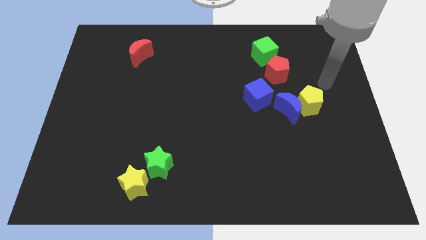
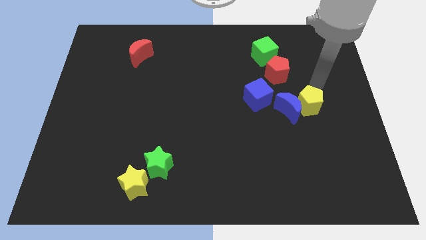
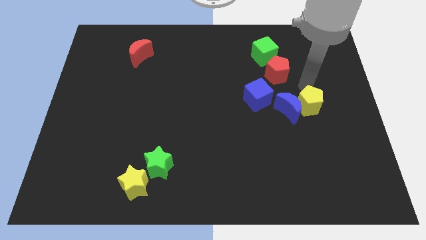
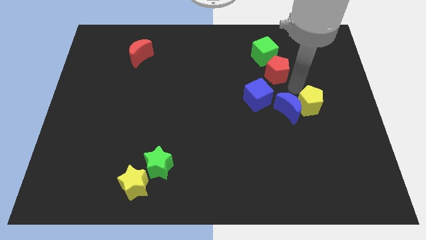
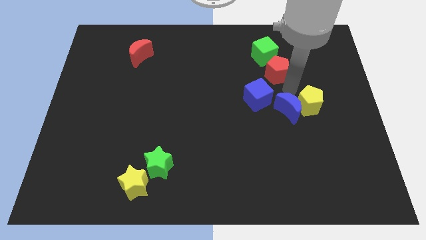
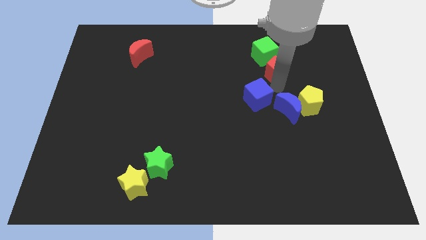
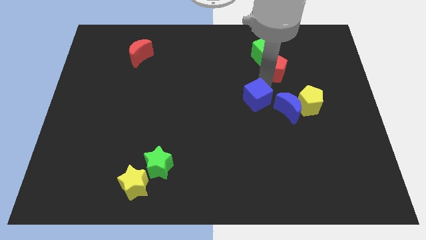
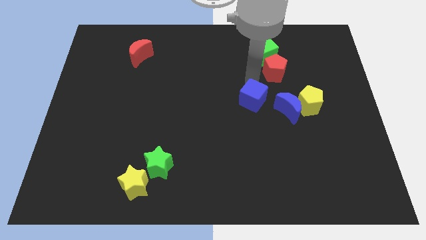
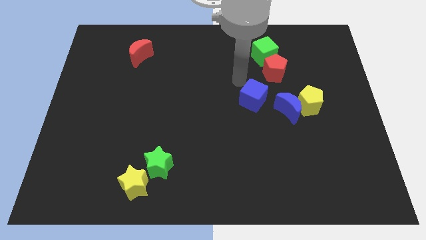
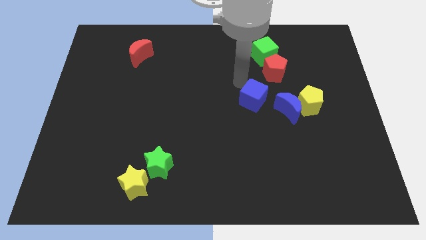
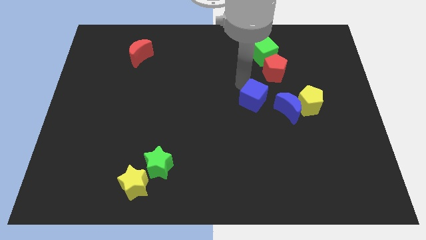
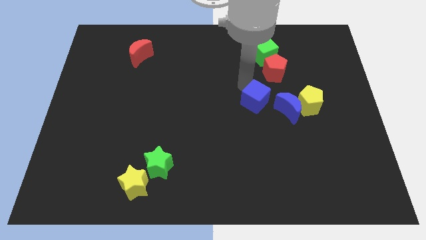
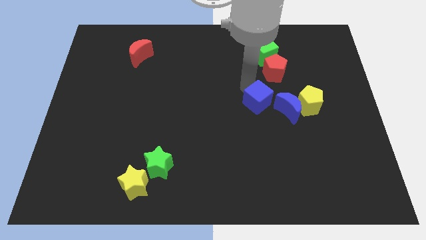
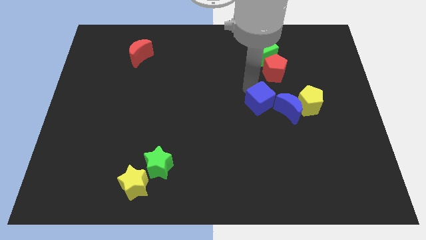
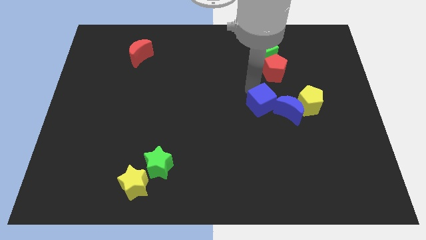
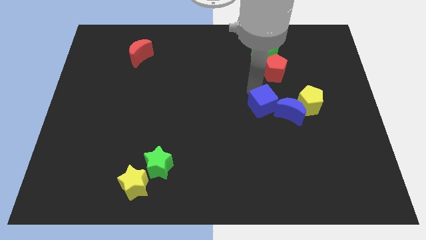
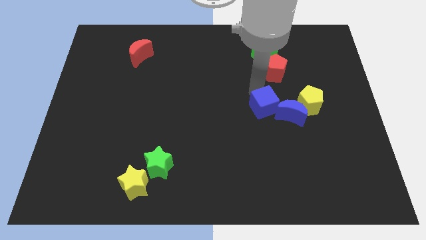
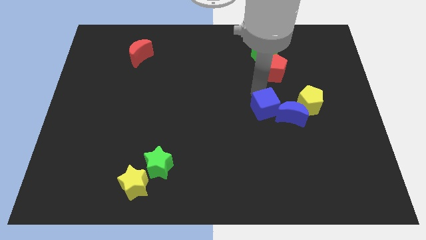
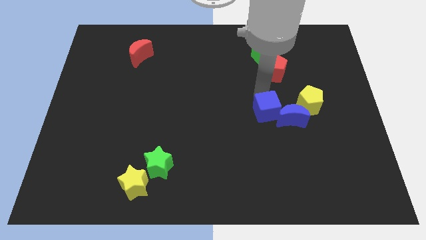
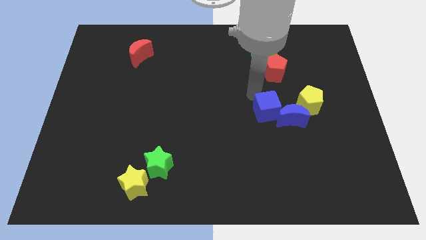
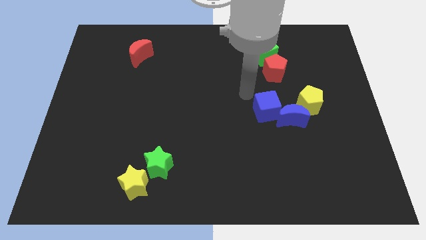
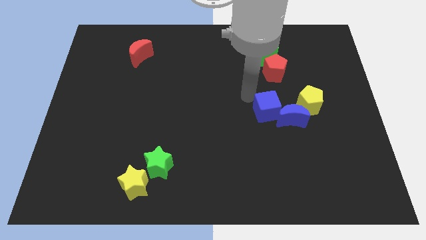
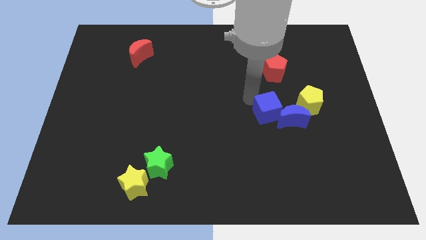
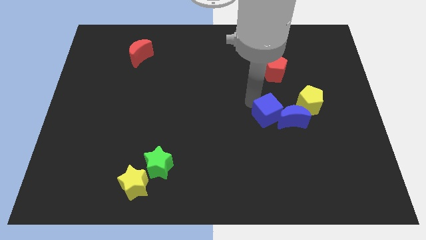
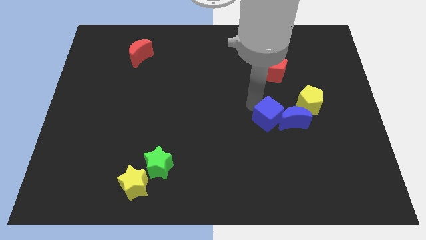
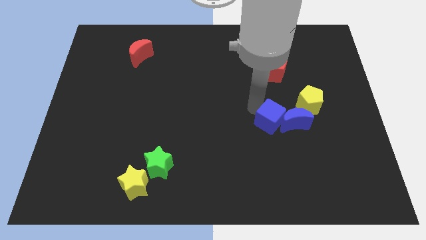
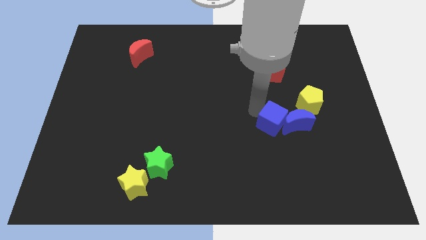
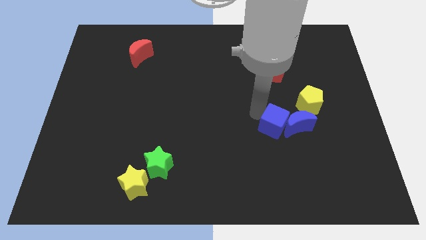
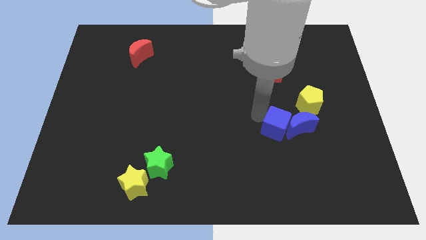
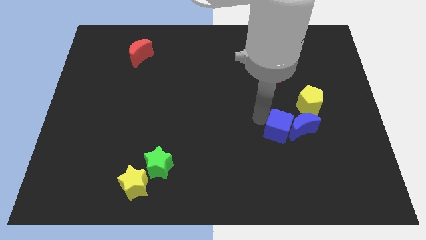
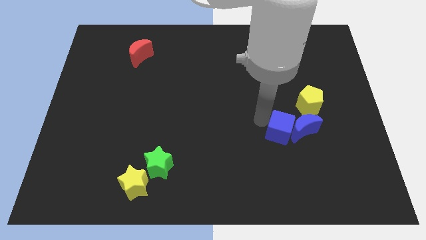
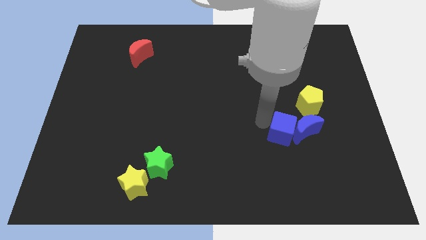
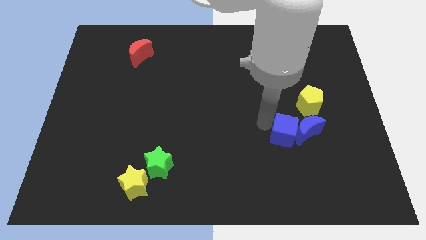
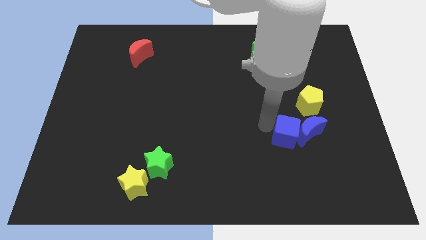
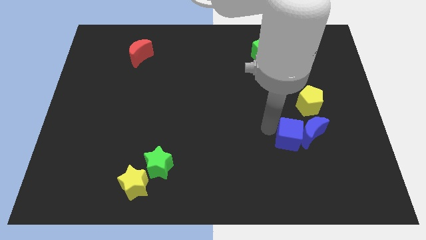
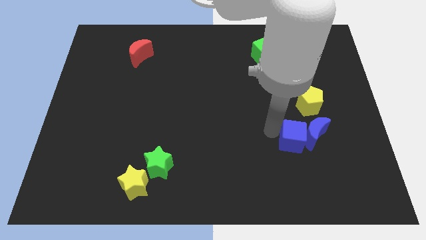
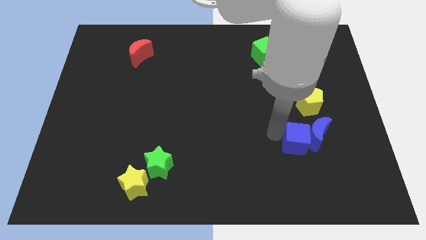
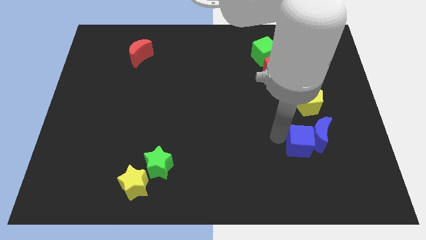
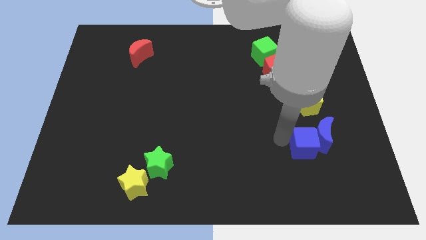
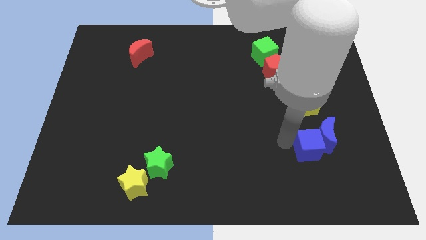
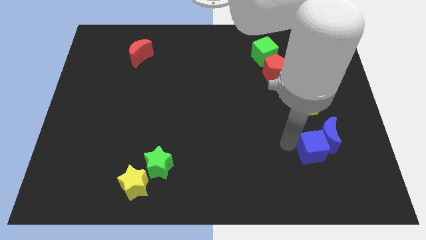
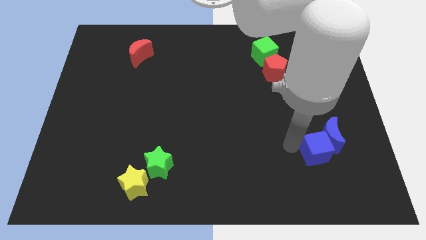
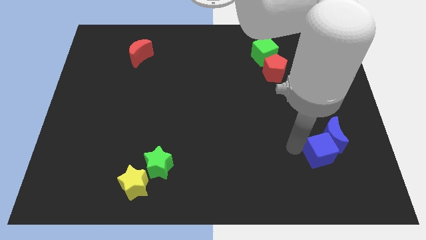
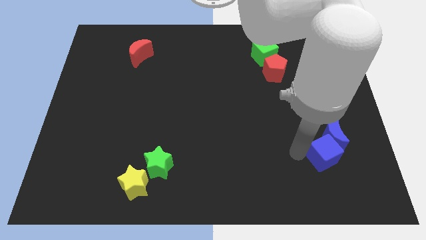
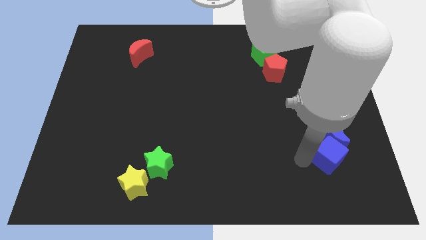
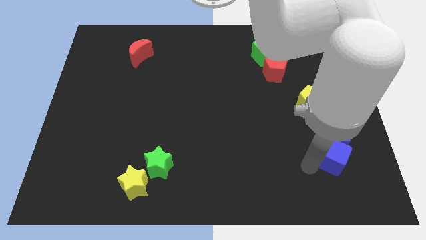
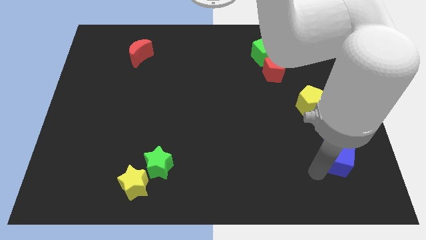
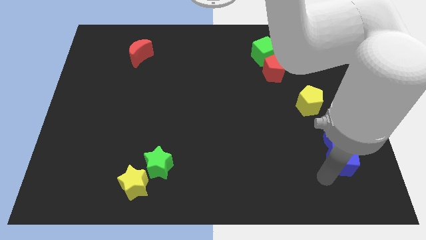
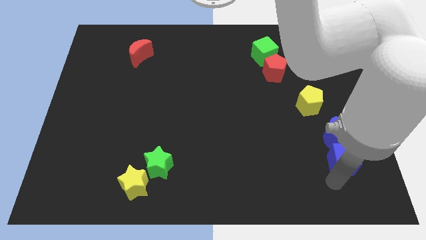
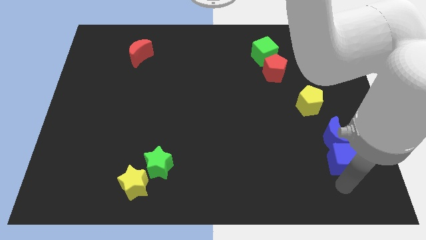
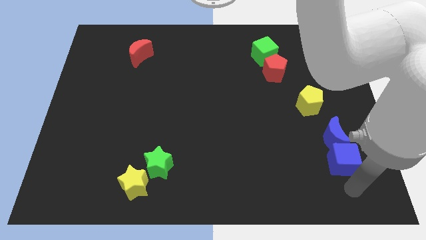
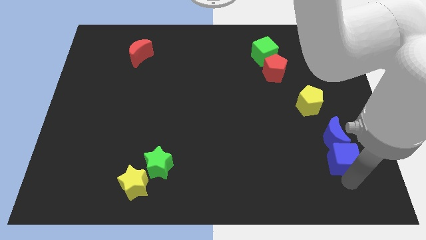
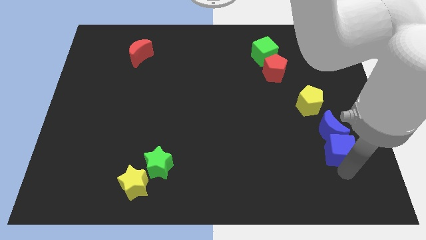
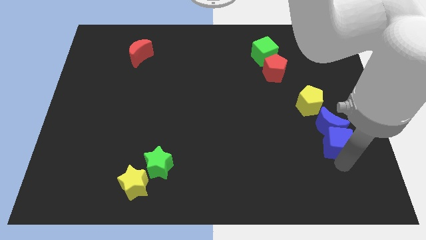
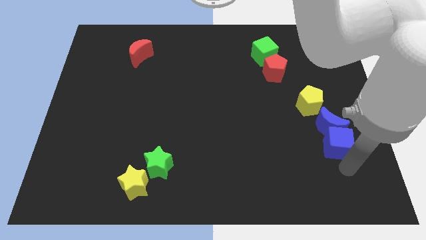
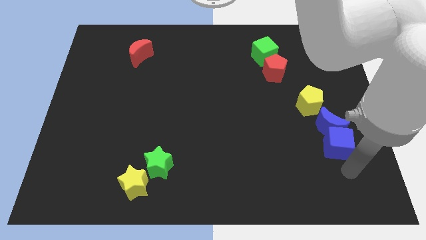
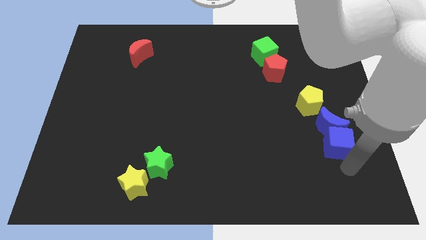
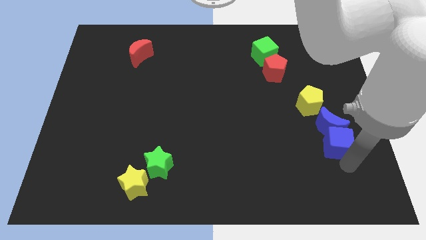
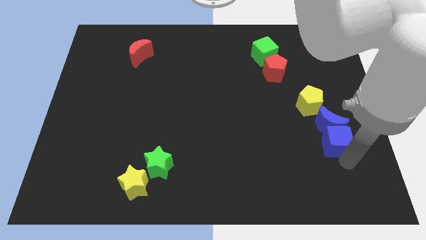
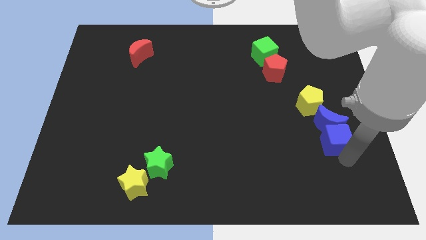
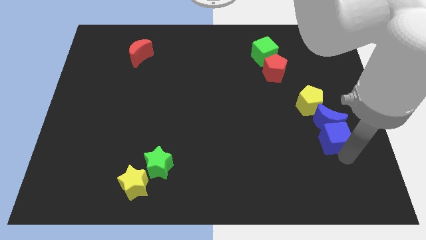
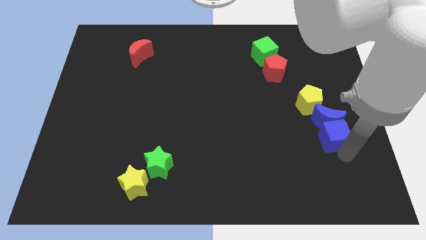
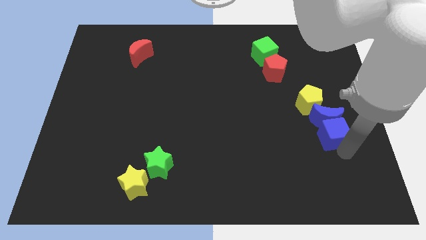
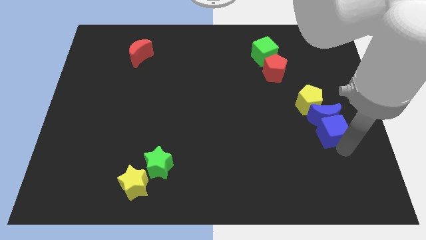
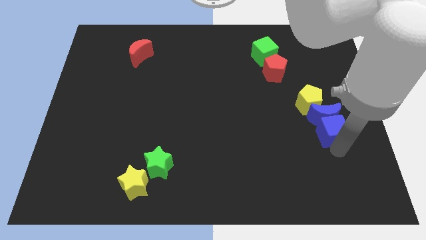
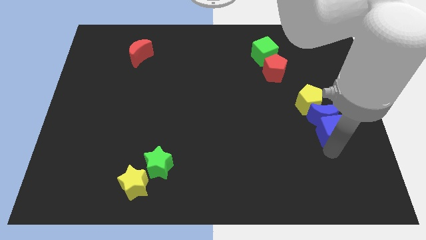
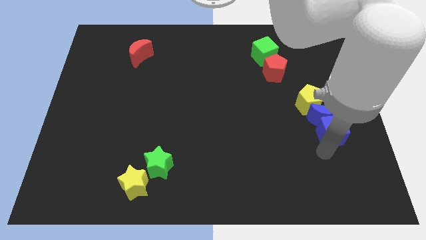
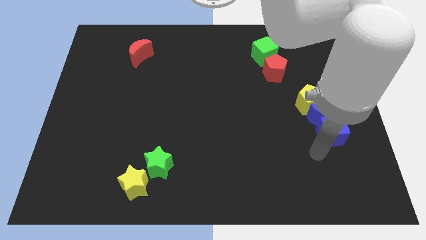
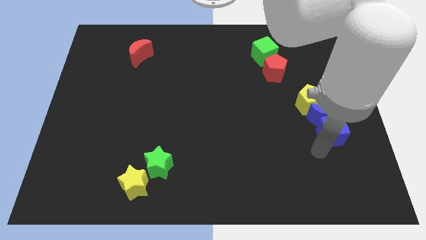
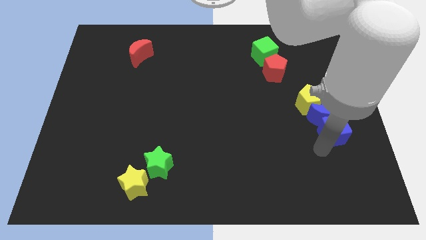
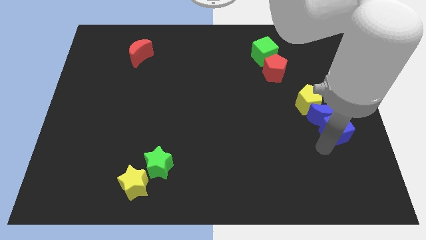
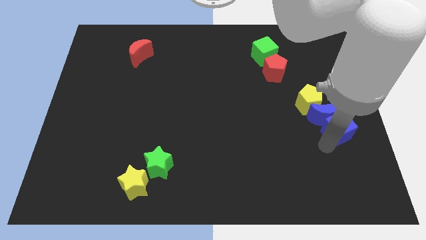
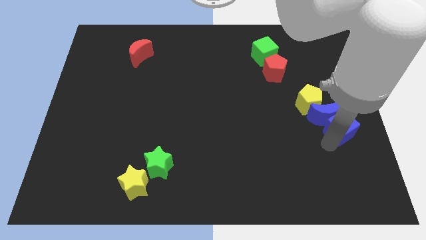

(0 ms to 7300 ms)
slide the blue cube to the center right
